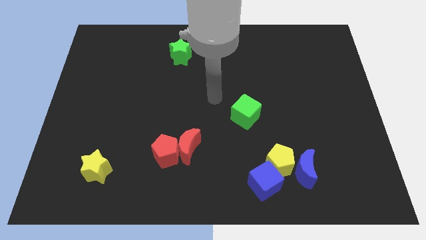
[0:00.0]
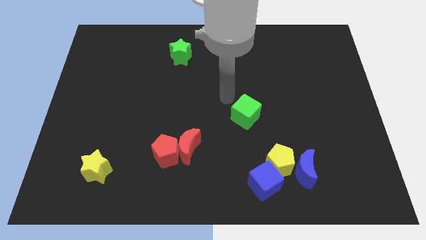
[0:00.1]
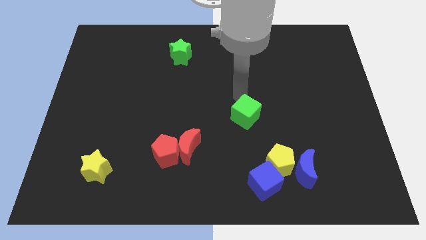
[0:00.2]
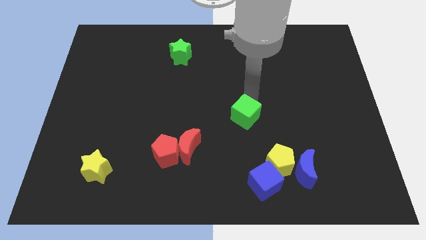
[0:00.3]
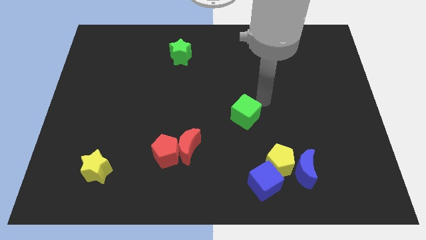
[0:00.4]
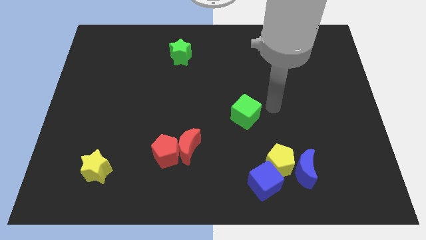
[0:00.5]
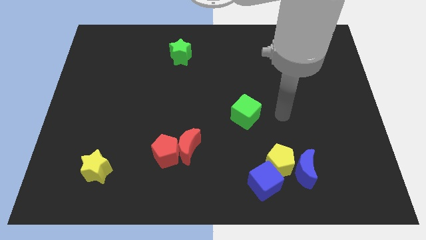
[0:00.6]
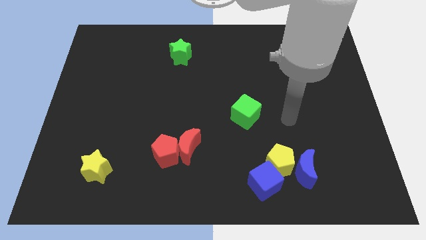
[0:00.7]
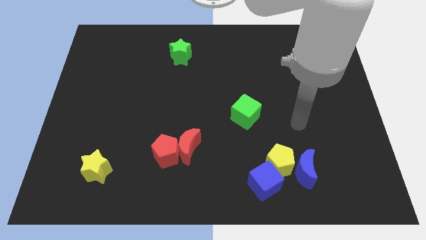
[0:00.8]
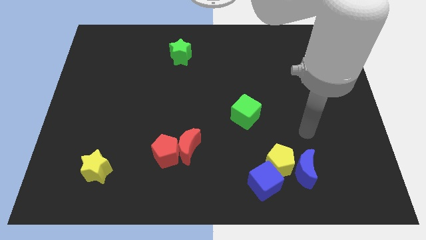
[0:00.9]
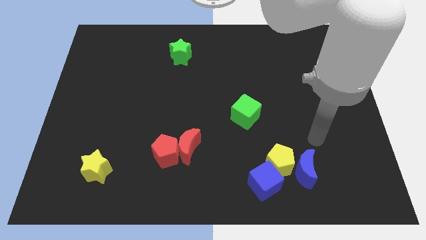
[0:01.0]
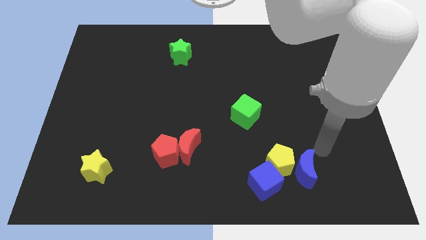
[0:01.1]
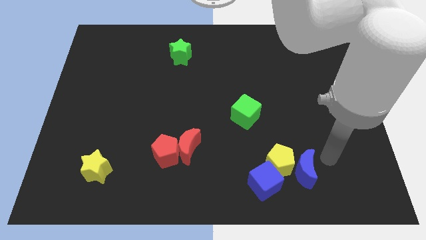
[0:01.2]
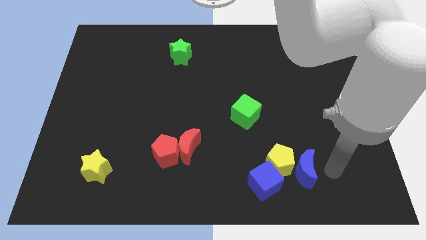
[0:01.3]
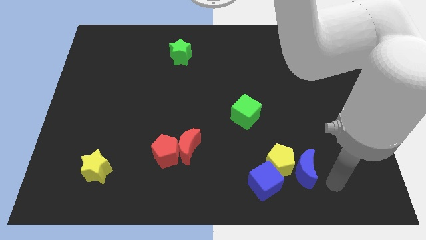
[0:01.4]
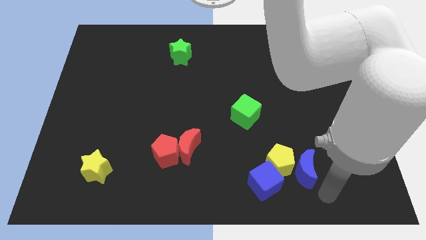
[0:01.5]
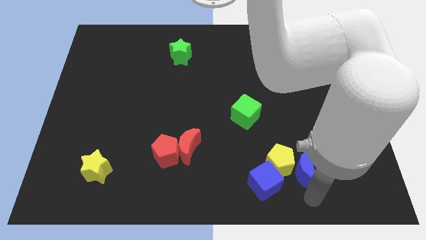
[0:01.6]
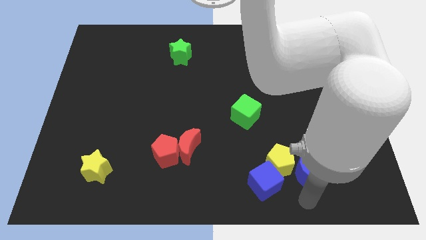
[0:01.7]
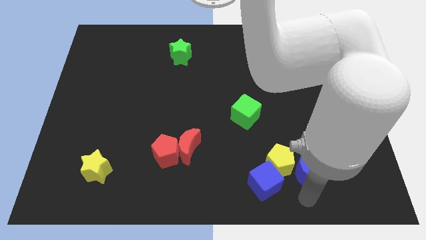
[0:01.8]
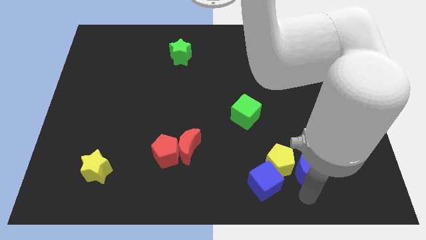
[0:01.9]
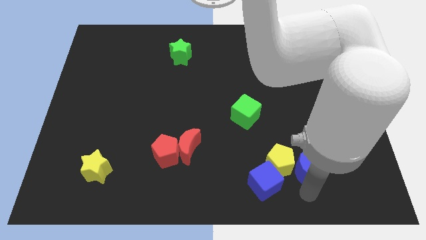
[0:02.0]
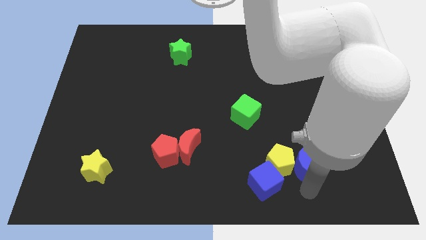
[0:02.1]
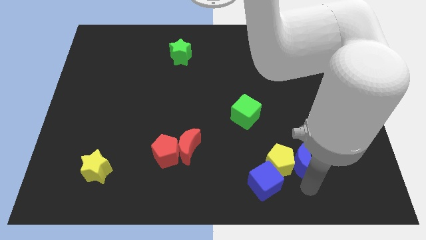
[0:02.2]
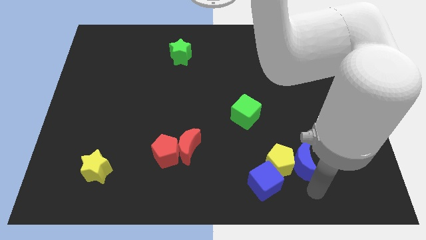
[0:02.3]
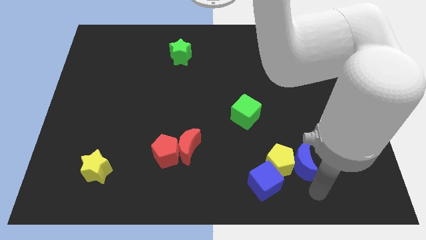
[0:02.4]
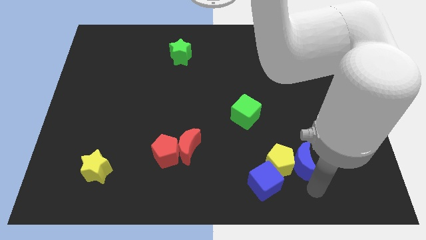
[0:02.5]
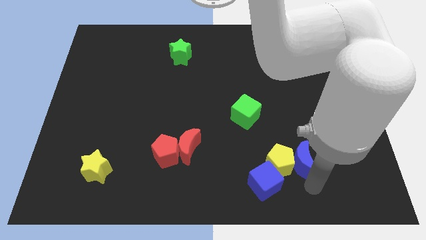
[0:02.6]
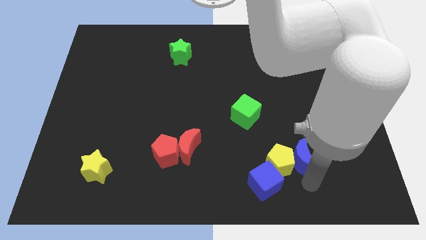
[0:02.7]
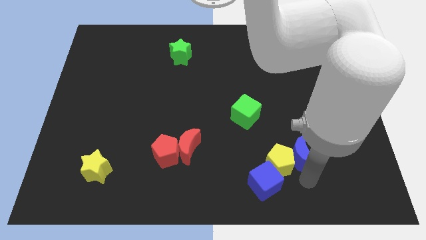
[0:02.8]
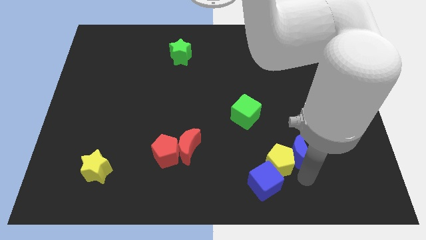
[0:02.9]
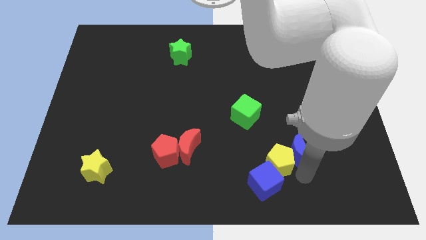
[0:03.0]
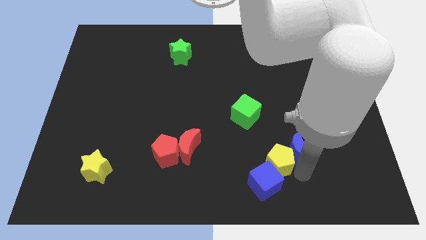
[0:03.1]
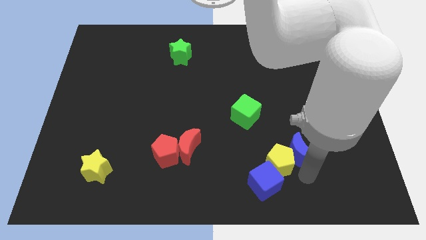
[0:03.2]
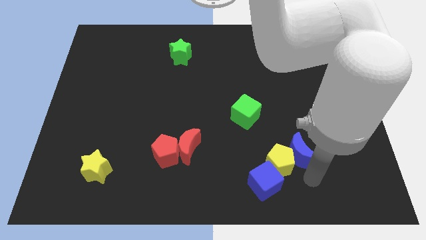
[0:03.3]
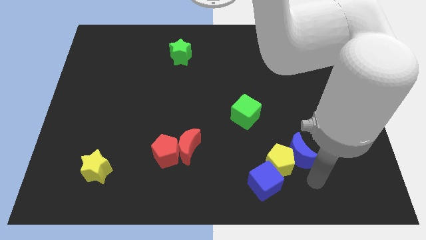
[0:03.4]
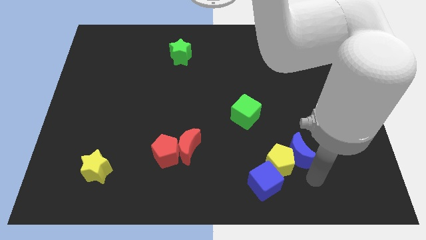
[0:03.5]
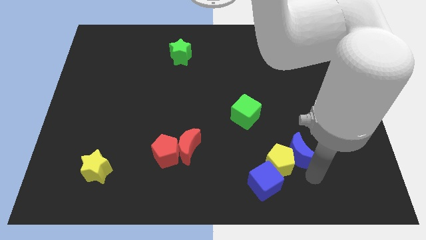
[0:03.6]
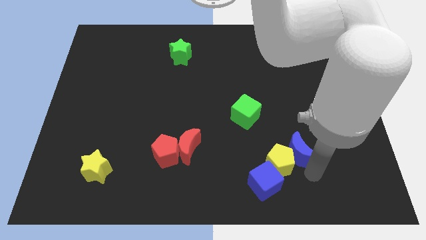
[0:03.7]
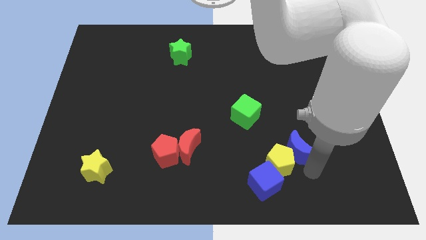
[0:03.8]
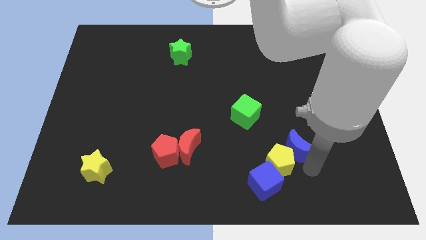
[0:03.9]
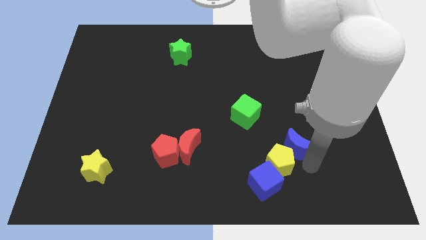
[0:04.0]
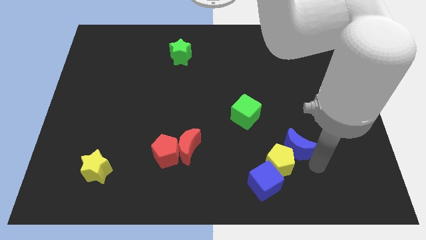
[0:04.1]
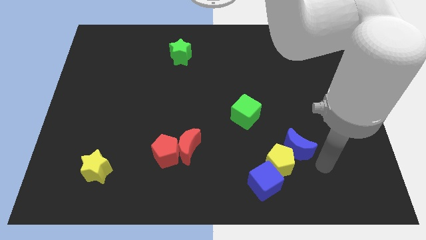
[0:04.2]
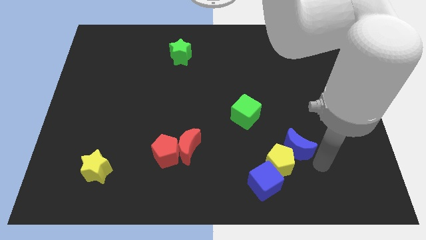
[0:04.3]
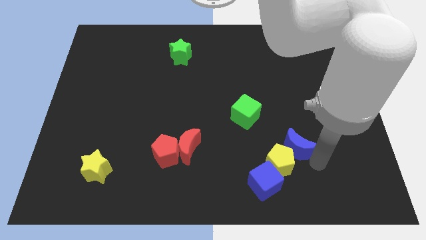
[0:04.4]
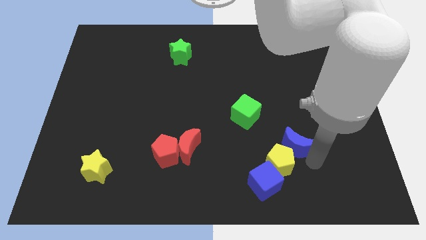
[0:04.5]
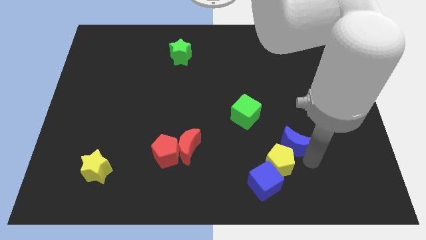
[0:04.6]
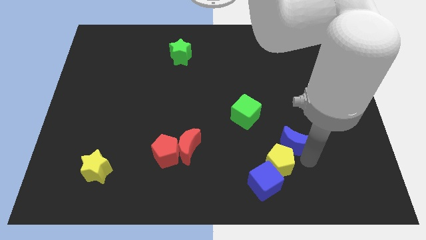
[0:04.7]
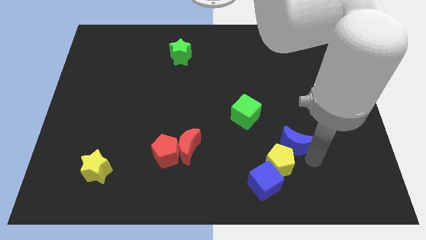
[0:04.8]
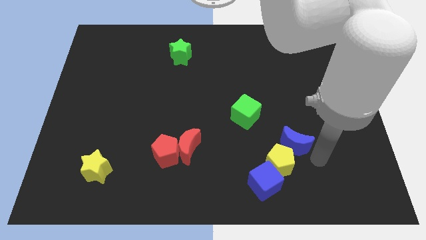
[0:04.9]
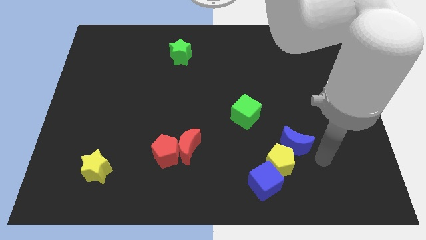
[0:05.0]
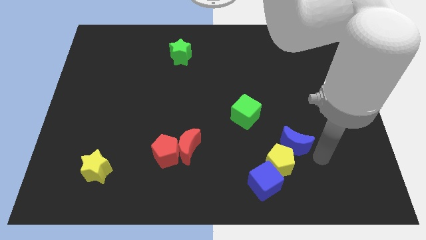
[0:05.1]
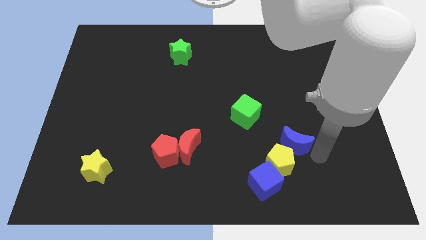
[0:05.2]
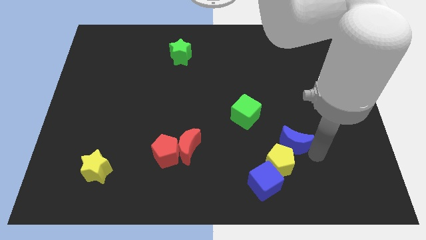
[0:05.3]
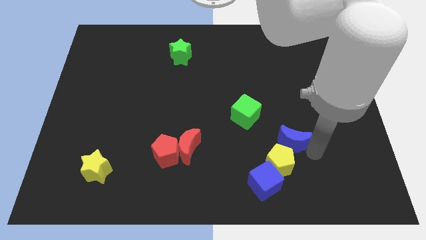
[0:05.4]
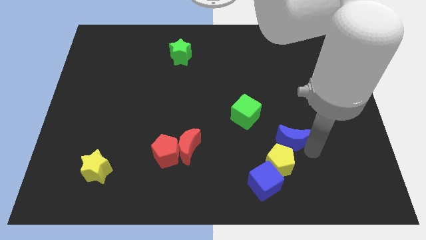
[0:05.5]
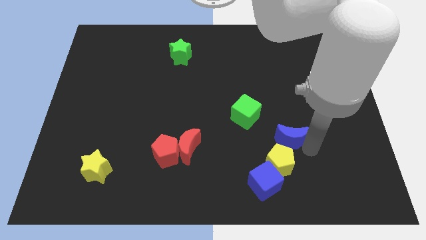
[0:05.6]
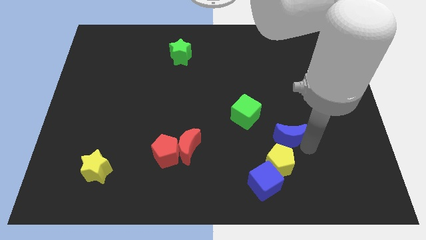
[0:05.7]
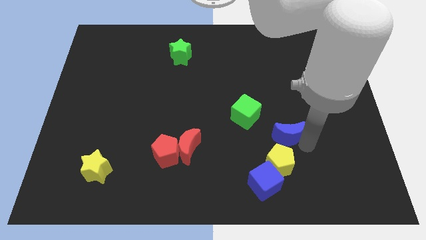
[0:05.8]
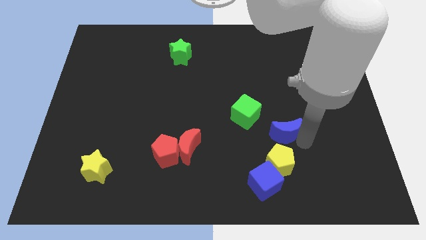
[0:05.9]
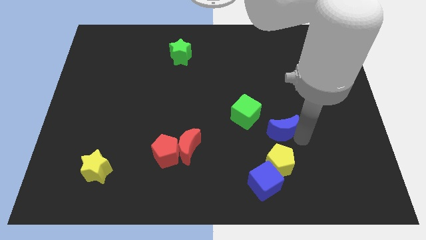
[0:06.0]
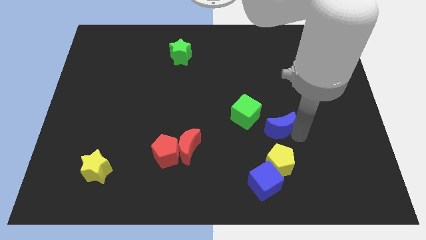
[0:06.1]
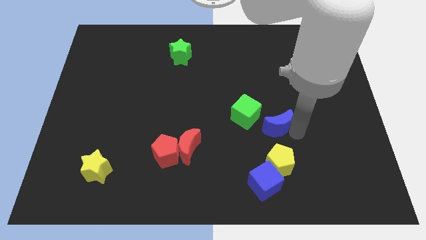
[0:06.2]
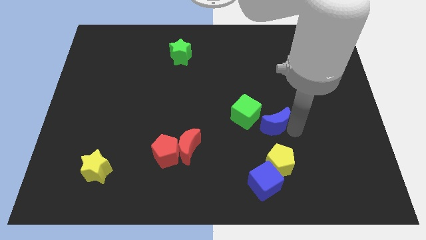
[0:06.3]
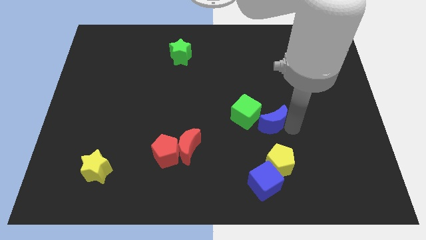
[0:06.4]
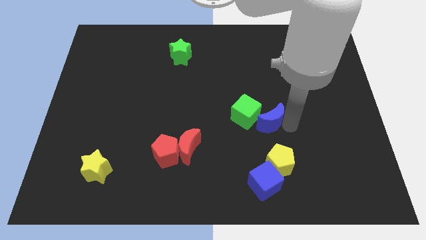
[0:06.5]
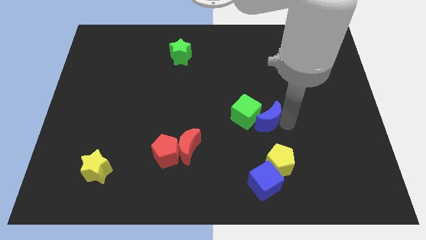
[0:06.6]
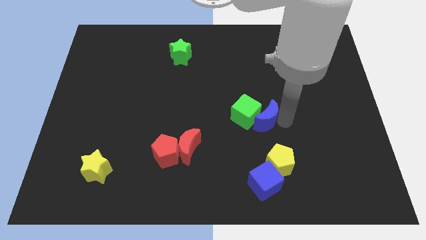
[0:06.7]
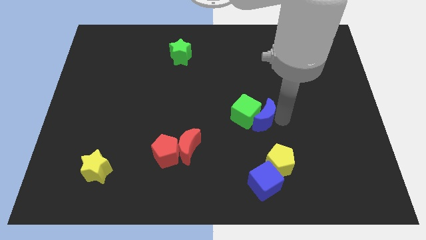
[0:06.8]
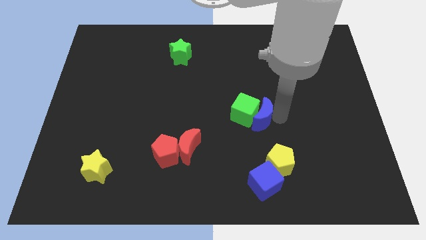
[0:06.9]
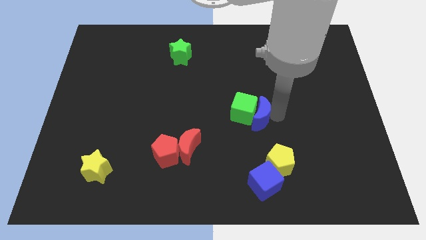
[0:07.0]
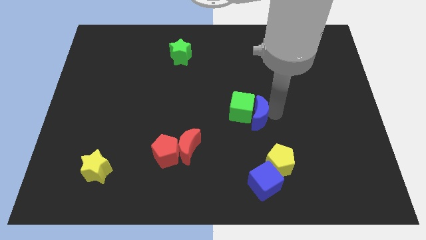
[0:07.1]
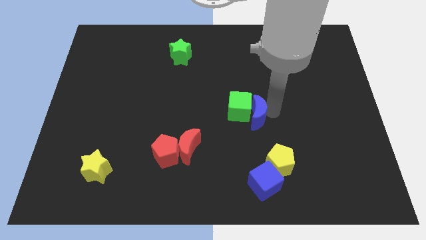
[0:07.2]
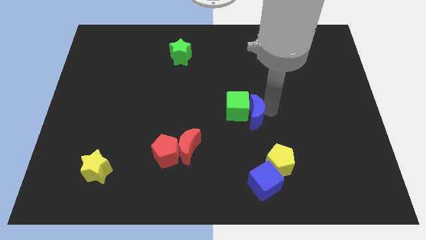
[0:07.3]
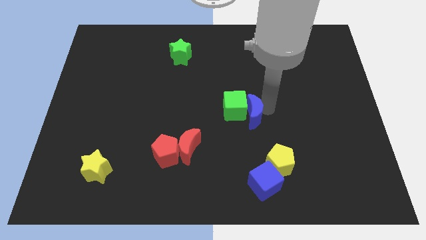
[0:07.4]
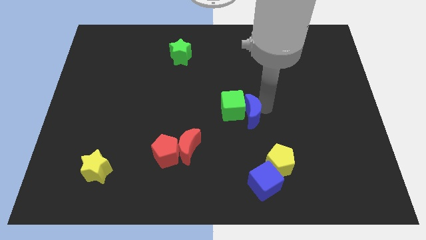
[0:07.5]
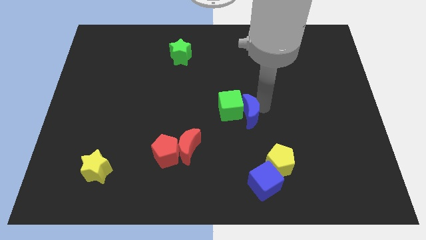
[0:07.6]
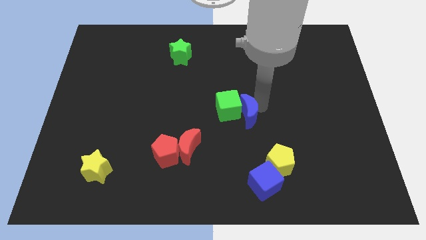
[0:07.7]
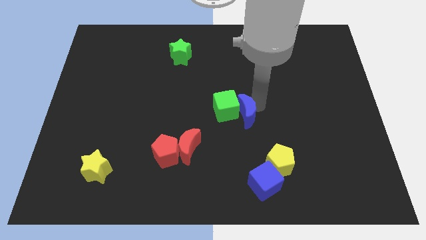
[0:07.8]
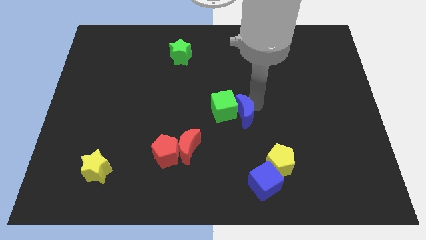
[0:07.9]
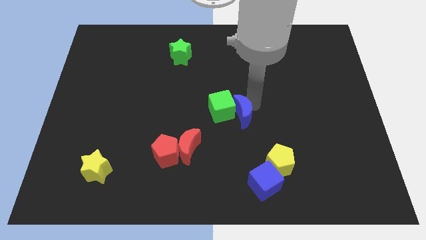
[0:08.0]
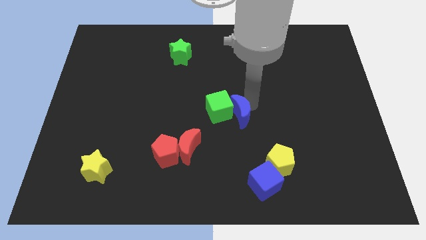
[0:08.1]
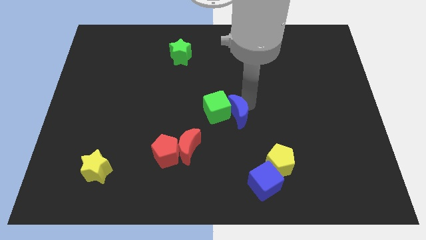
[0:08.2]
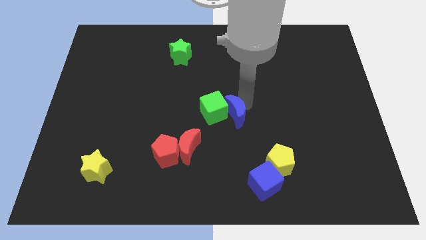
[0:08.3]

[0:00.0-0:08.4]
push the blue moon up and left diagonally
